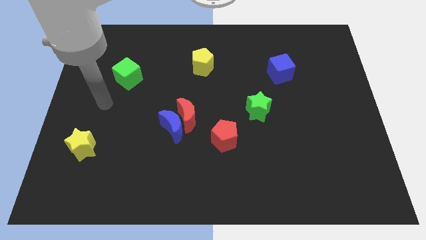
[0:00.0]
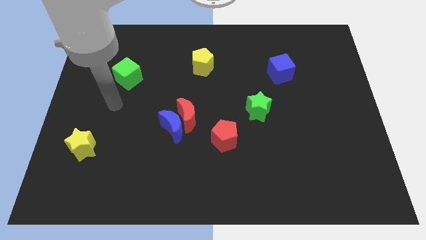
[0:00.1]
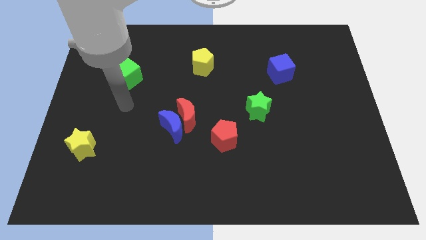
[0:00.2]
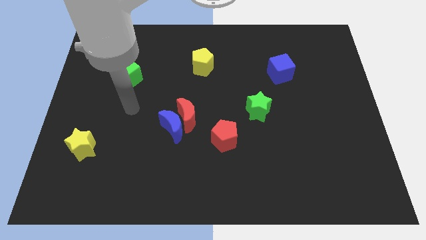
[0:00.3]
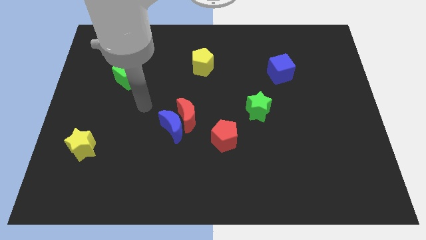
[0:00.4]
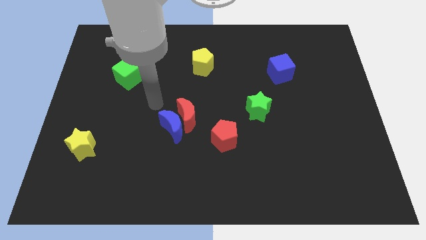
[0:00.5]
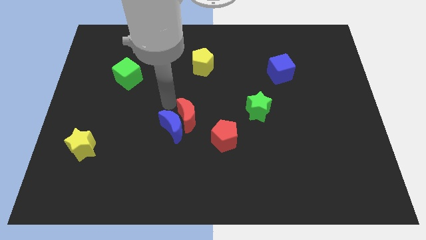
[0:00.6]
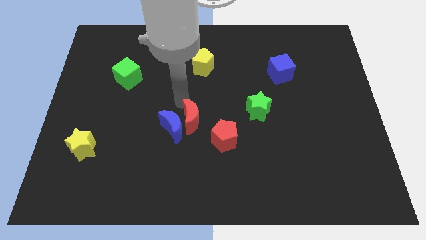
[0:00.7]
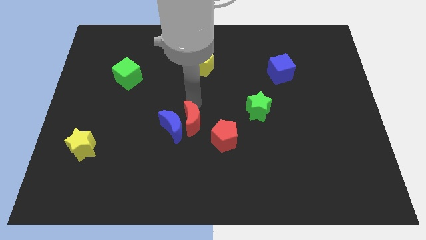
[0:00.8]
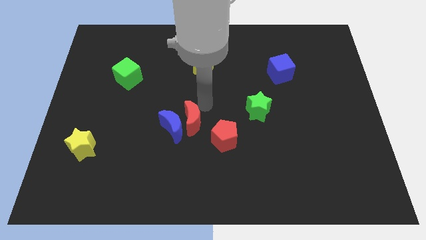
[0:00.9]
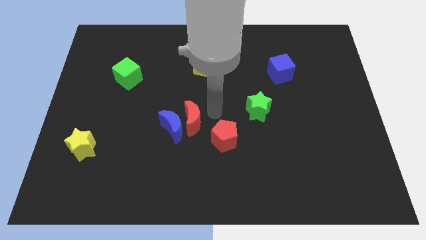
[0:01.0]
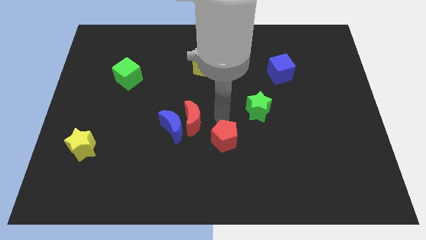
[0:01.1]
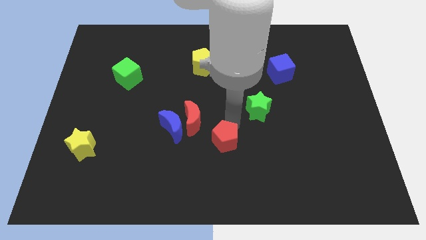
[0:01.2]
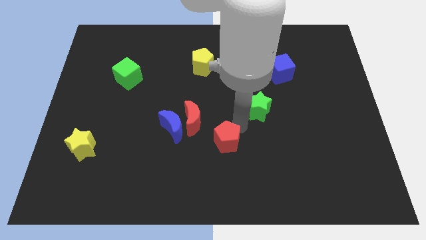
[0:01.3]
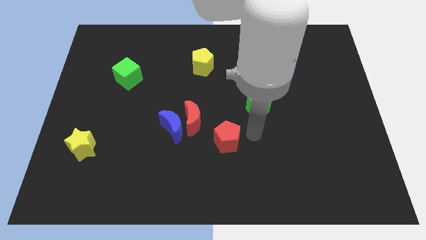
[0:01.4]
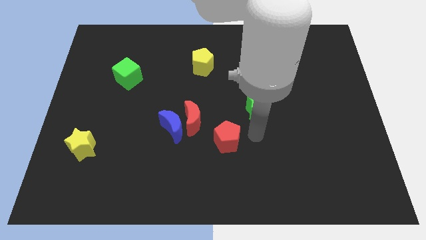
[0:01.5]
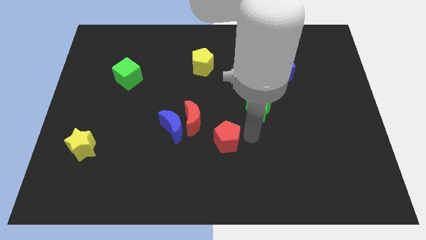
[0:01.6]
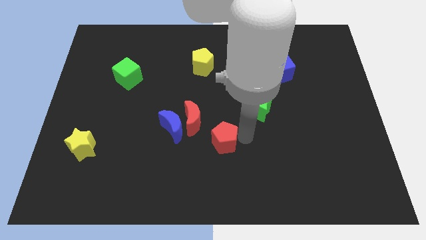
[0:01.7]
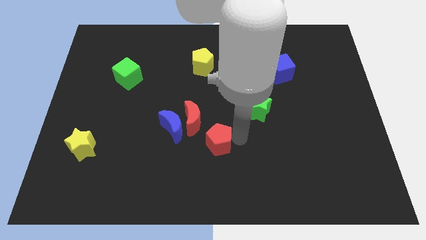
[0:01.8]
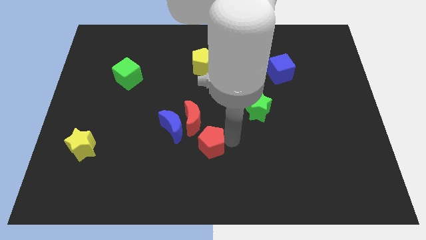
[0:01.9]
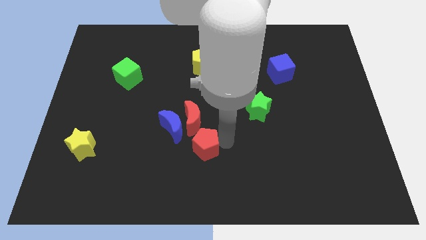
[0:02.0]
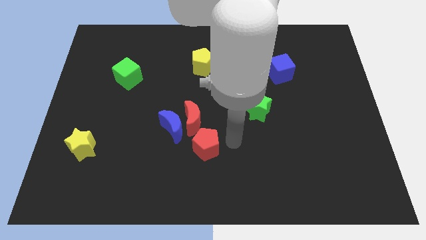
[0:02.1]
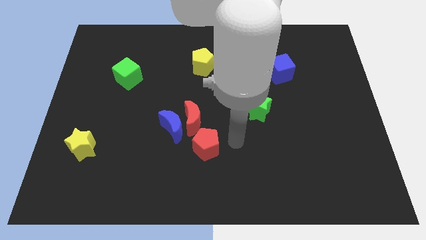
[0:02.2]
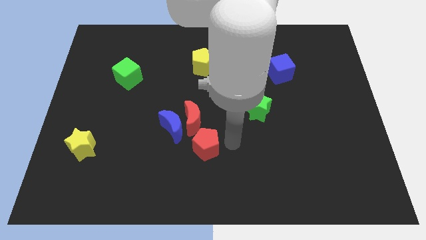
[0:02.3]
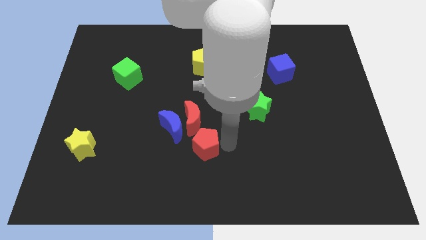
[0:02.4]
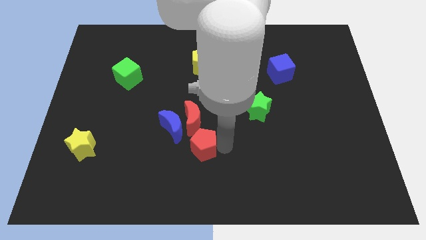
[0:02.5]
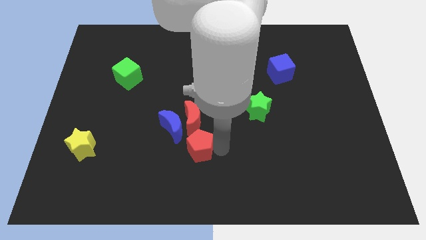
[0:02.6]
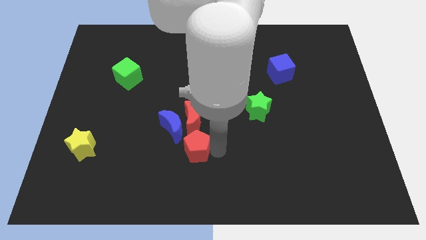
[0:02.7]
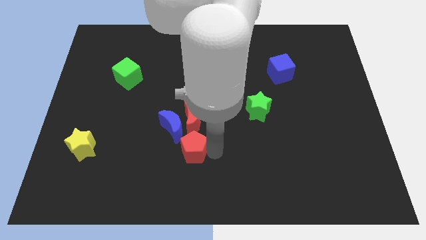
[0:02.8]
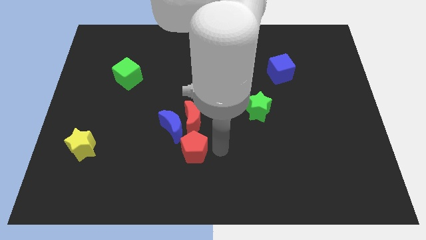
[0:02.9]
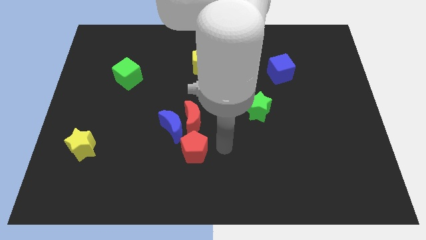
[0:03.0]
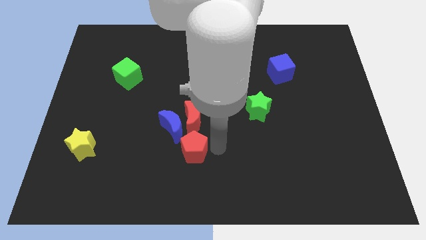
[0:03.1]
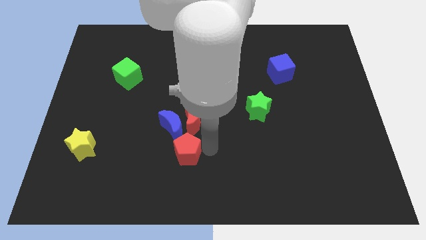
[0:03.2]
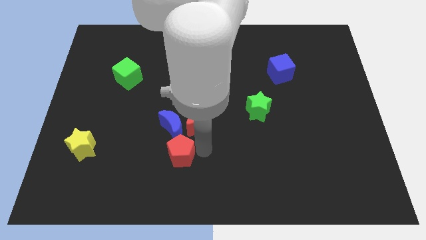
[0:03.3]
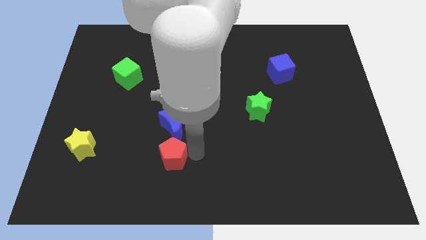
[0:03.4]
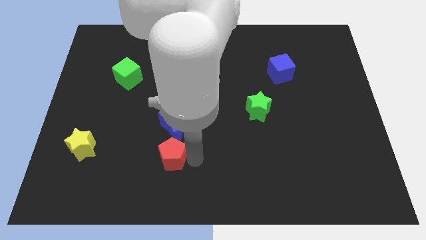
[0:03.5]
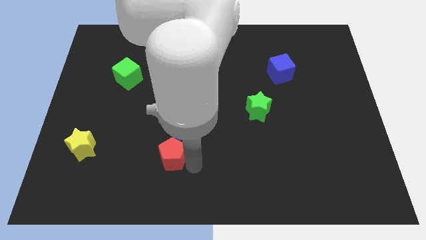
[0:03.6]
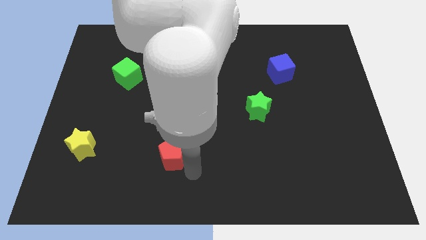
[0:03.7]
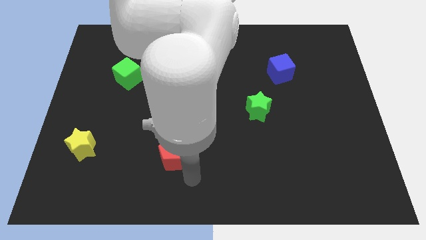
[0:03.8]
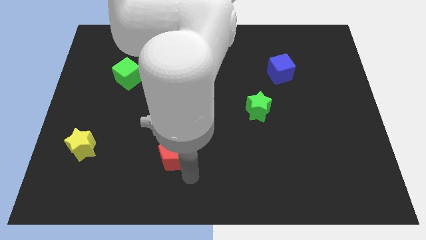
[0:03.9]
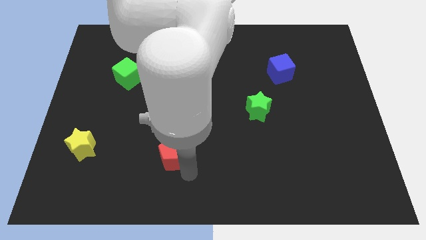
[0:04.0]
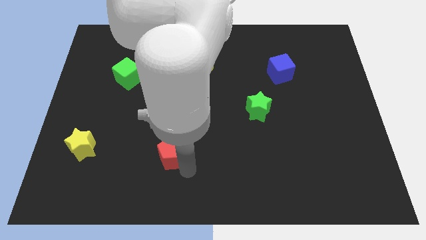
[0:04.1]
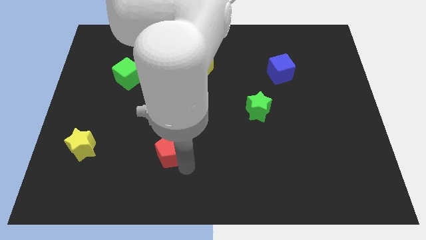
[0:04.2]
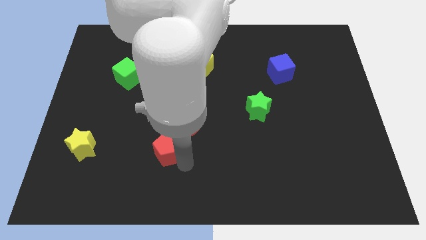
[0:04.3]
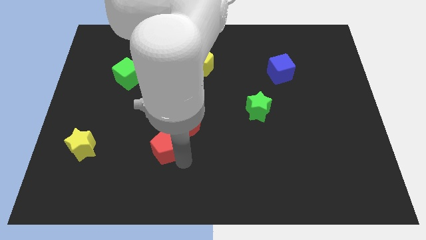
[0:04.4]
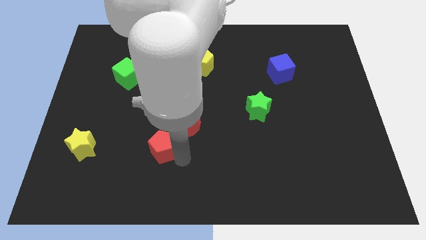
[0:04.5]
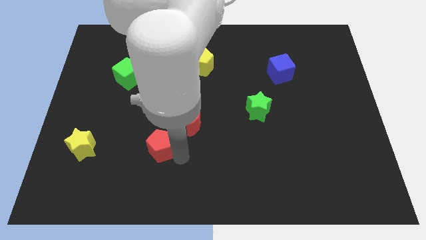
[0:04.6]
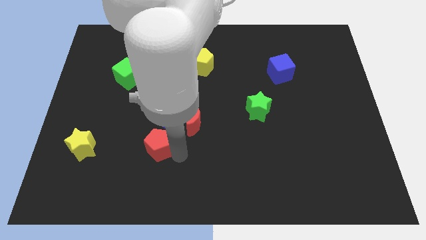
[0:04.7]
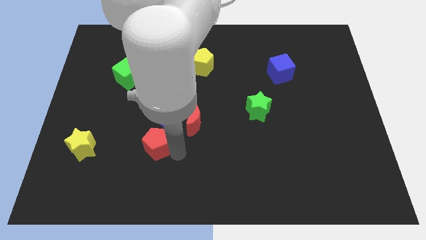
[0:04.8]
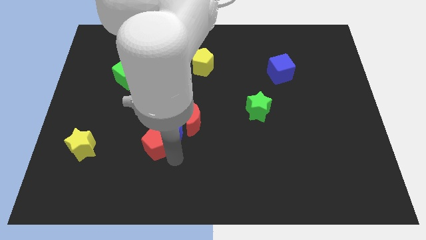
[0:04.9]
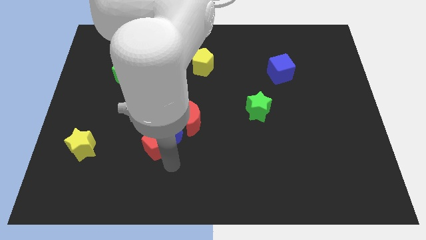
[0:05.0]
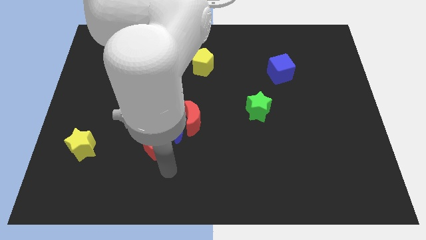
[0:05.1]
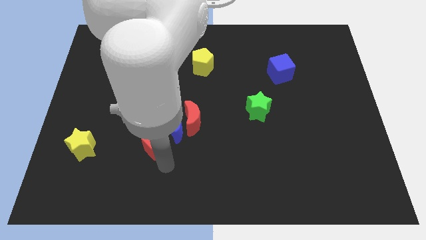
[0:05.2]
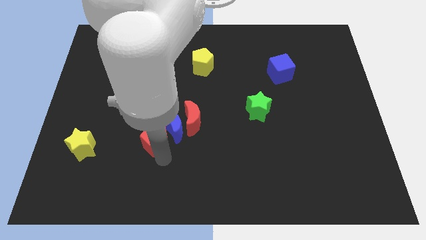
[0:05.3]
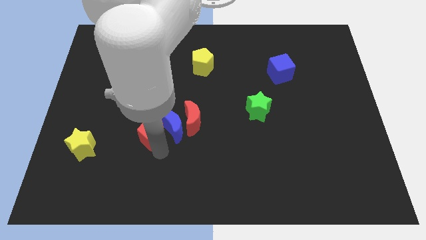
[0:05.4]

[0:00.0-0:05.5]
slide the red pentagon to the left side of the red moon

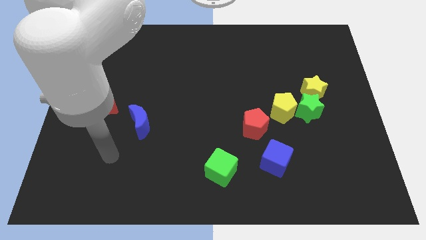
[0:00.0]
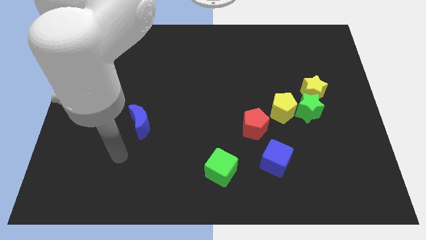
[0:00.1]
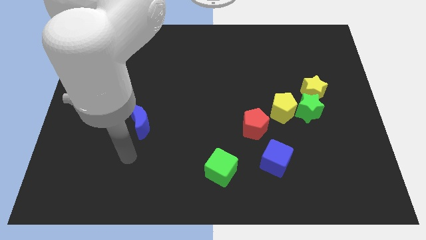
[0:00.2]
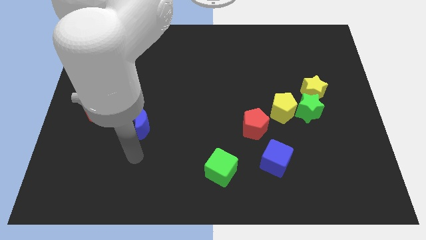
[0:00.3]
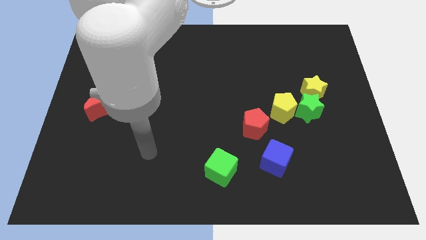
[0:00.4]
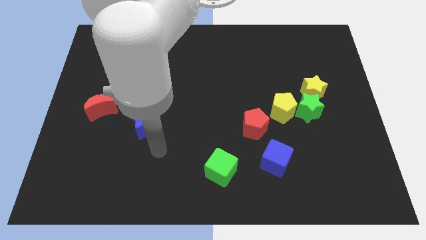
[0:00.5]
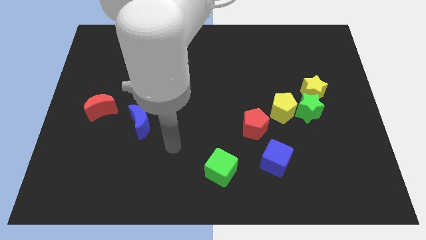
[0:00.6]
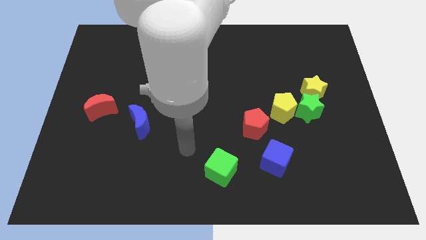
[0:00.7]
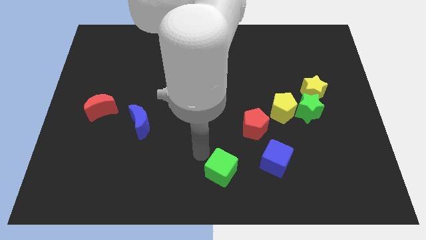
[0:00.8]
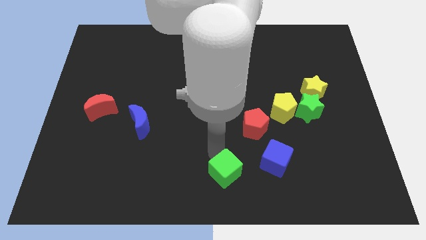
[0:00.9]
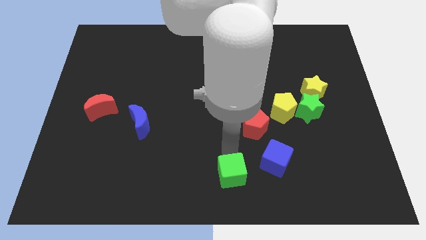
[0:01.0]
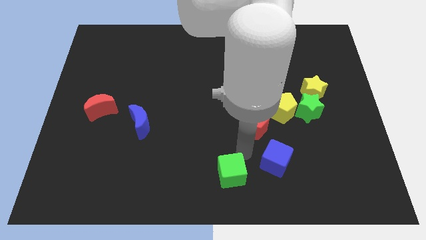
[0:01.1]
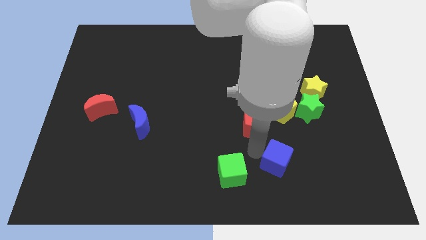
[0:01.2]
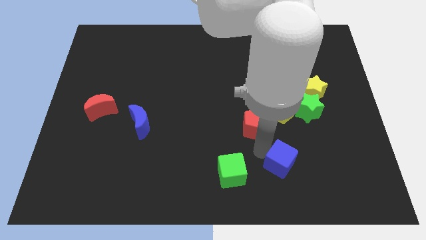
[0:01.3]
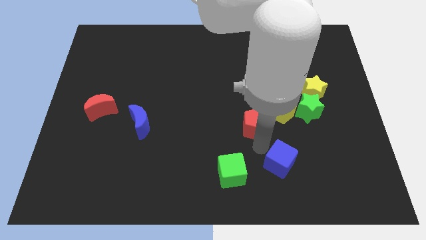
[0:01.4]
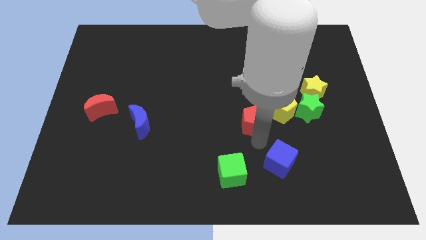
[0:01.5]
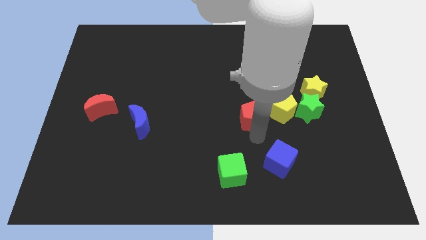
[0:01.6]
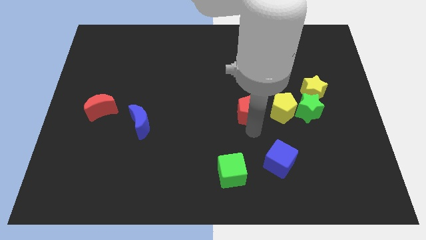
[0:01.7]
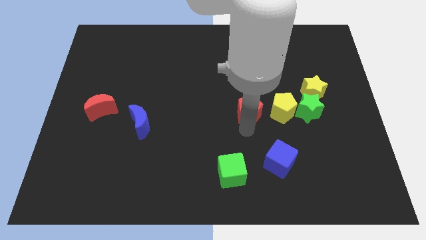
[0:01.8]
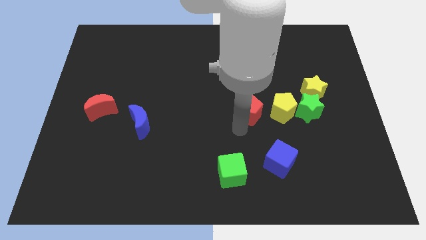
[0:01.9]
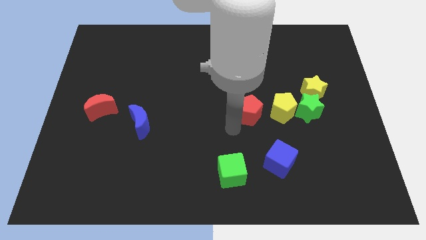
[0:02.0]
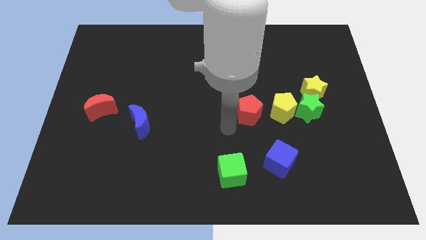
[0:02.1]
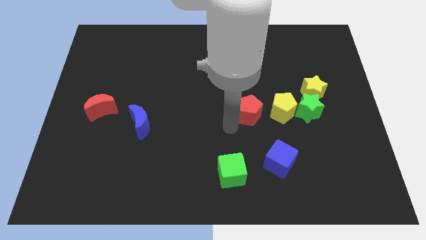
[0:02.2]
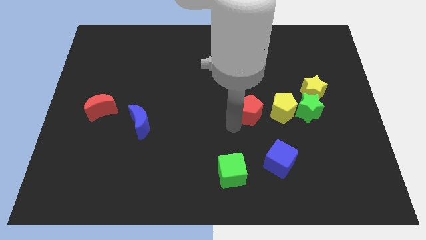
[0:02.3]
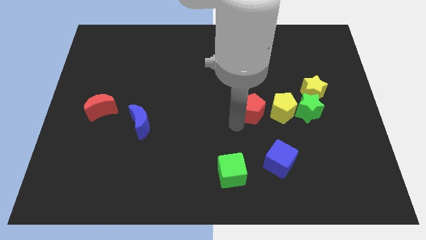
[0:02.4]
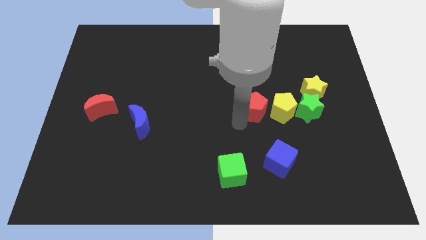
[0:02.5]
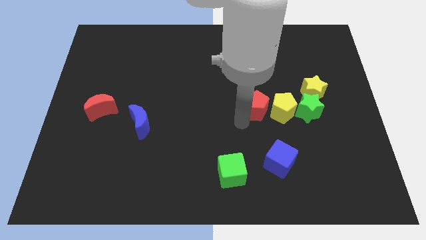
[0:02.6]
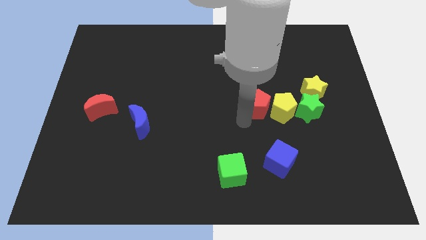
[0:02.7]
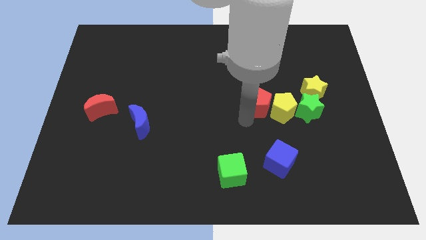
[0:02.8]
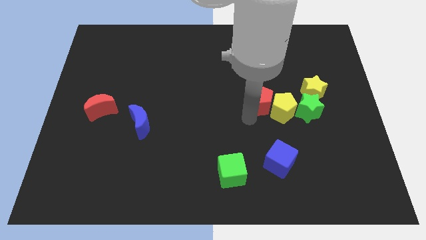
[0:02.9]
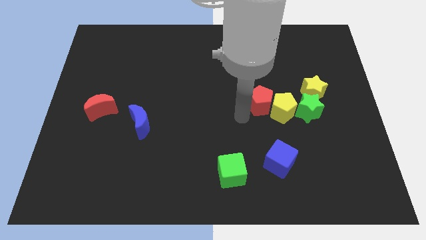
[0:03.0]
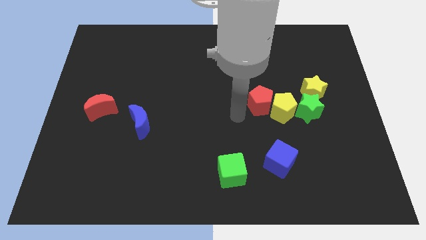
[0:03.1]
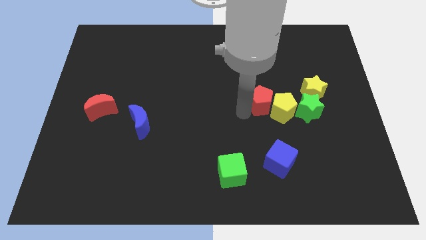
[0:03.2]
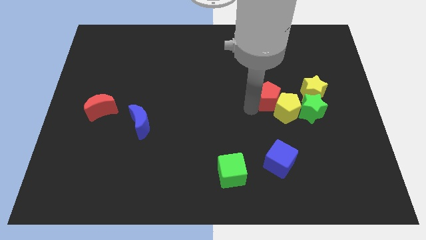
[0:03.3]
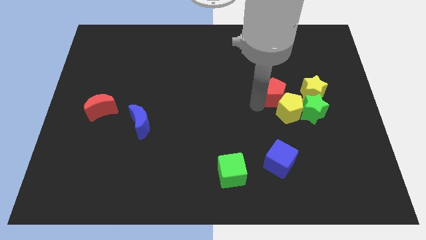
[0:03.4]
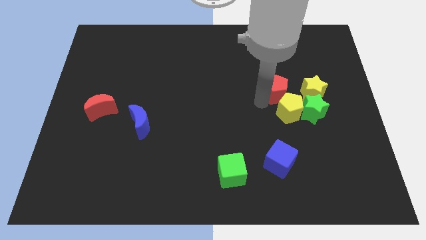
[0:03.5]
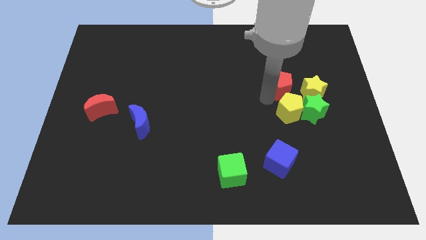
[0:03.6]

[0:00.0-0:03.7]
put the red pentagon diagonally up and to the left of the yellow star
